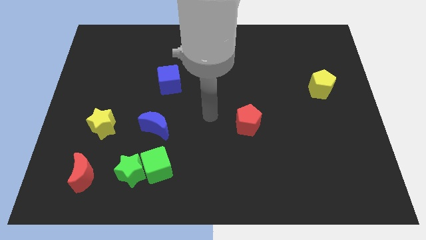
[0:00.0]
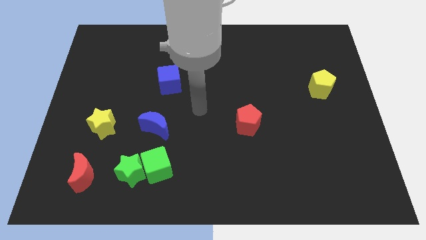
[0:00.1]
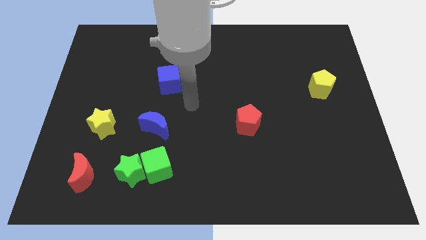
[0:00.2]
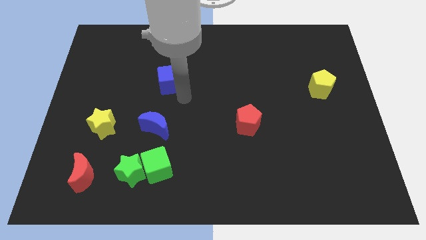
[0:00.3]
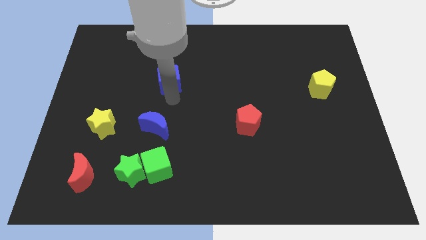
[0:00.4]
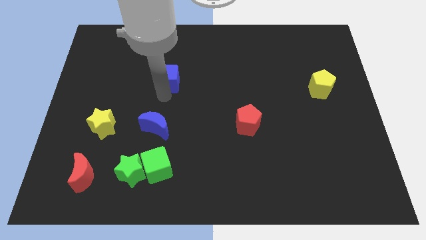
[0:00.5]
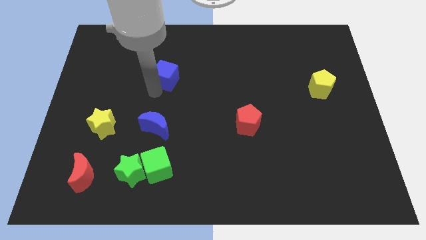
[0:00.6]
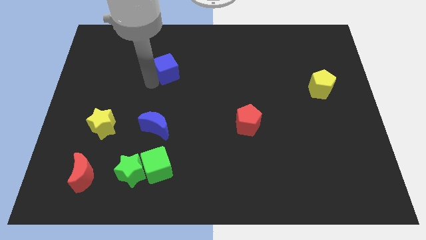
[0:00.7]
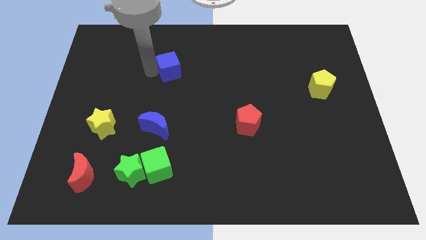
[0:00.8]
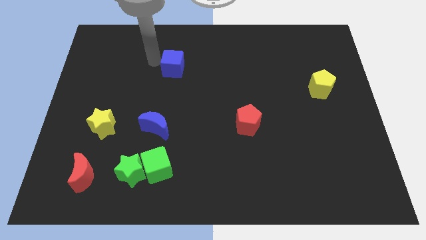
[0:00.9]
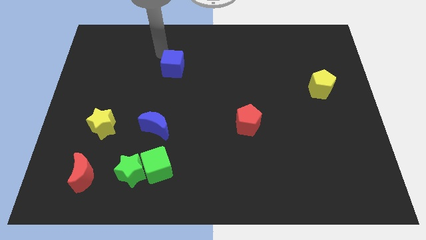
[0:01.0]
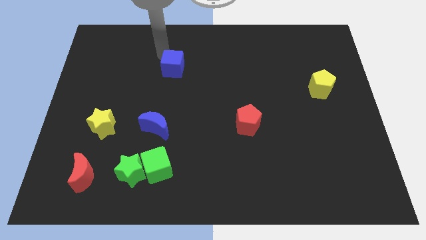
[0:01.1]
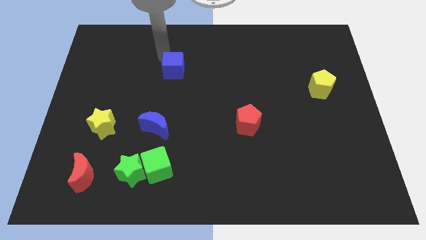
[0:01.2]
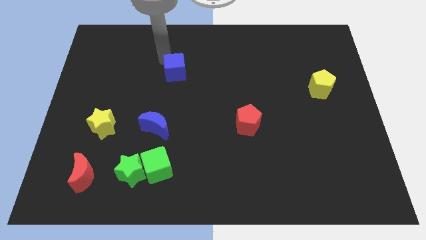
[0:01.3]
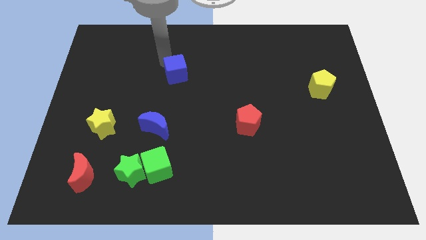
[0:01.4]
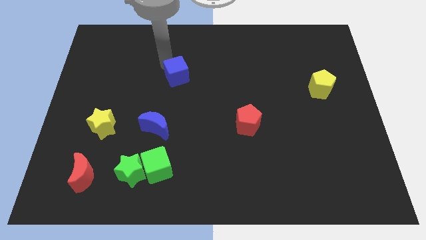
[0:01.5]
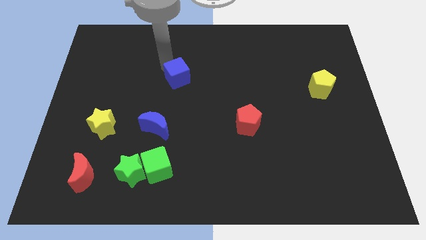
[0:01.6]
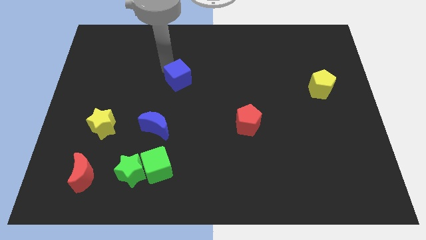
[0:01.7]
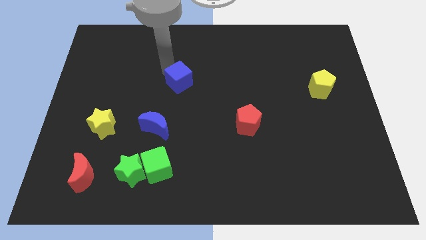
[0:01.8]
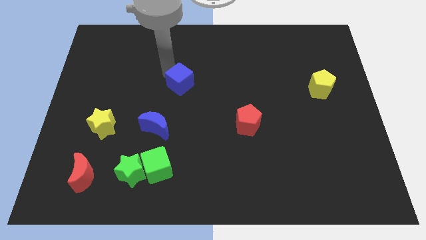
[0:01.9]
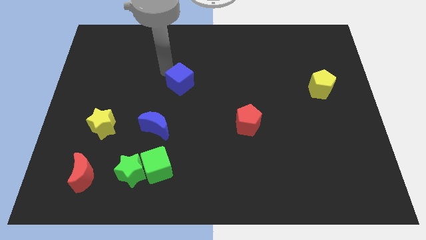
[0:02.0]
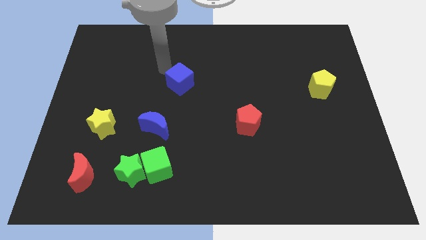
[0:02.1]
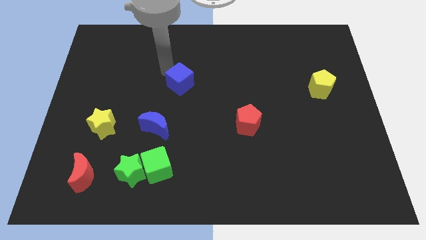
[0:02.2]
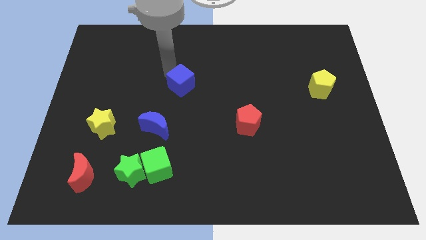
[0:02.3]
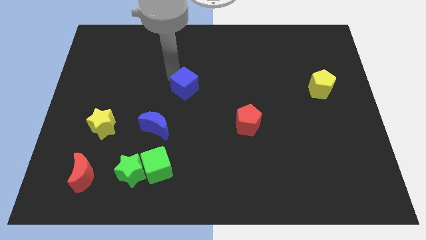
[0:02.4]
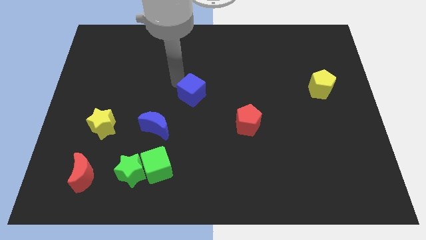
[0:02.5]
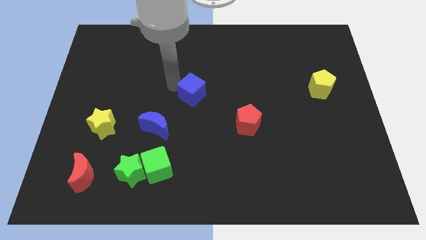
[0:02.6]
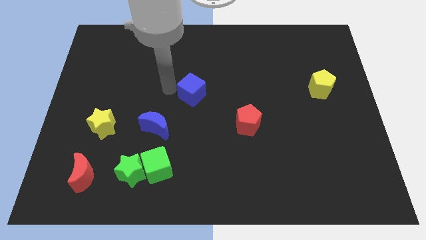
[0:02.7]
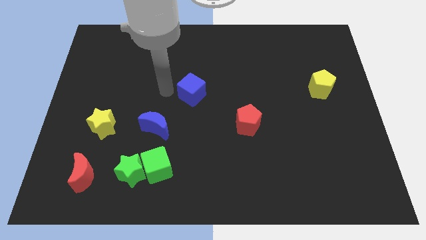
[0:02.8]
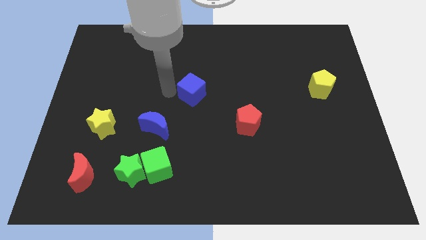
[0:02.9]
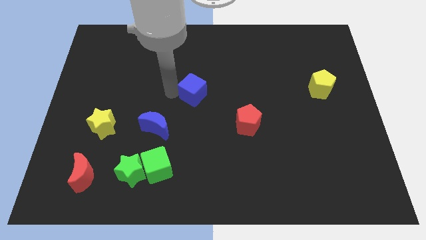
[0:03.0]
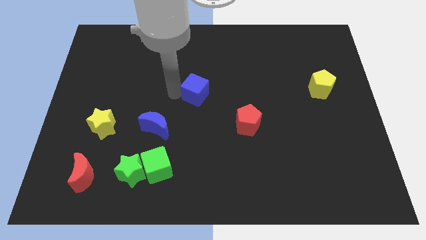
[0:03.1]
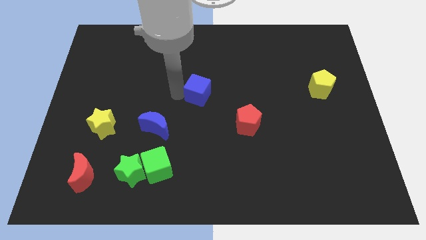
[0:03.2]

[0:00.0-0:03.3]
slide the blue cube slightly to the right

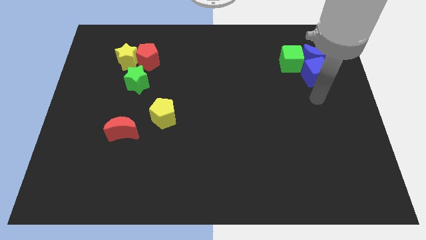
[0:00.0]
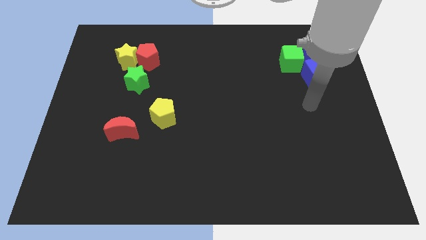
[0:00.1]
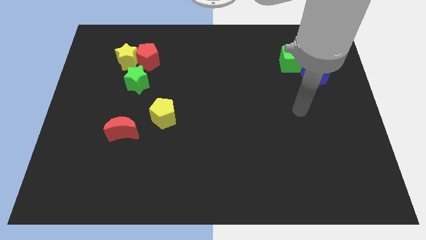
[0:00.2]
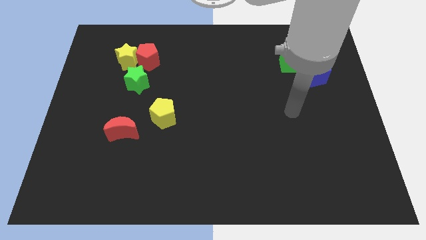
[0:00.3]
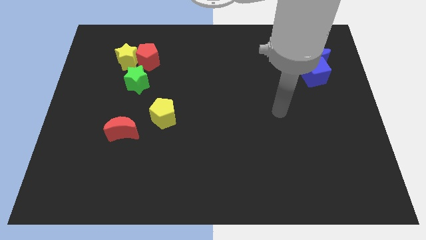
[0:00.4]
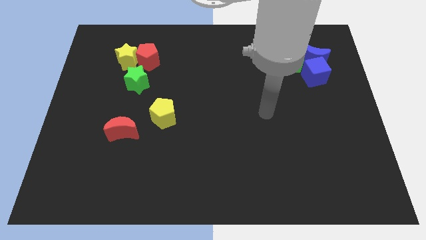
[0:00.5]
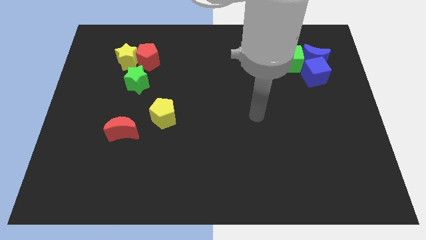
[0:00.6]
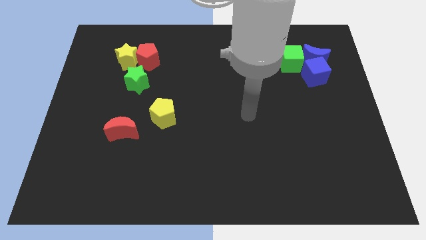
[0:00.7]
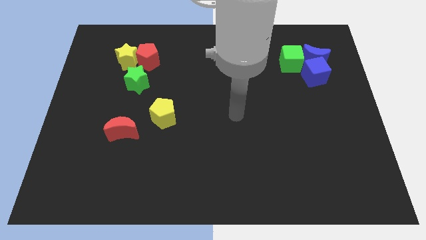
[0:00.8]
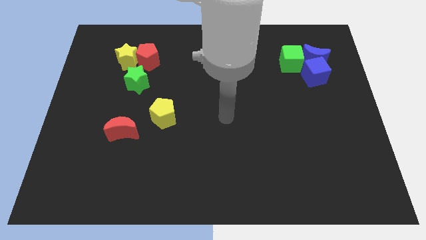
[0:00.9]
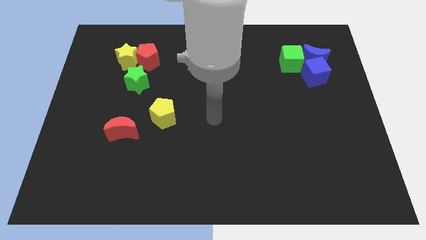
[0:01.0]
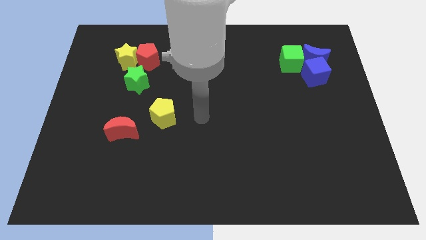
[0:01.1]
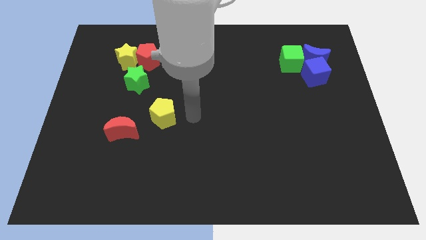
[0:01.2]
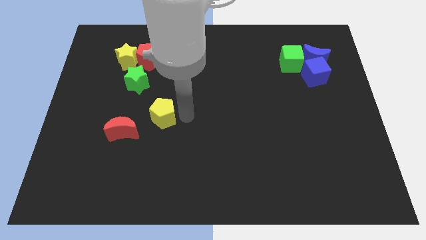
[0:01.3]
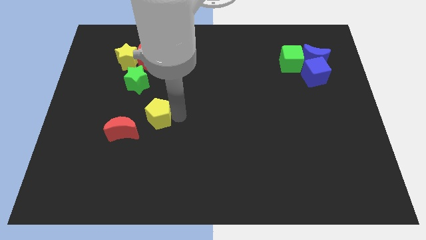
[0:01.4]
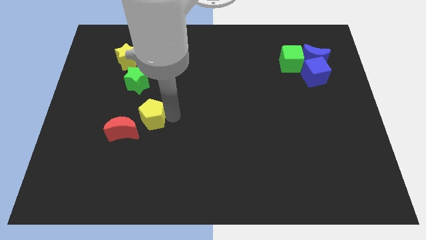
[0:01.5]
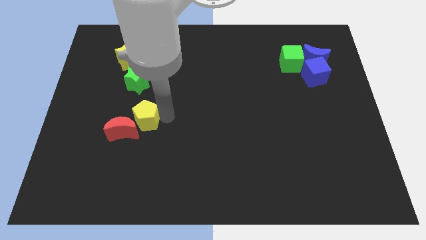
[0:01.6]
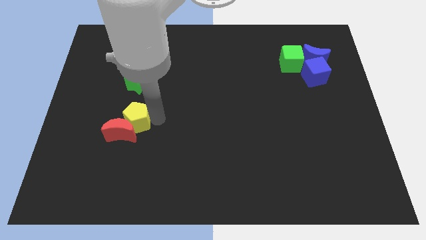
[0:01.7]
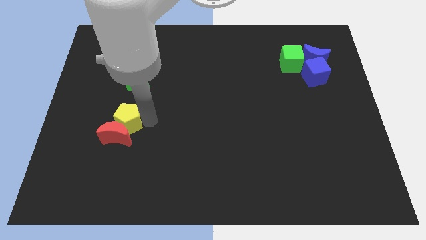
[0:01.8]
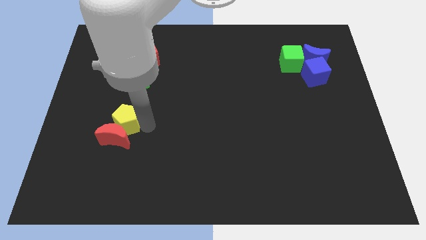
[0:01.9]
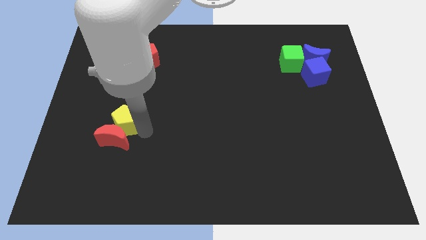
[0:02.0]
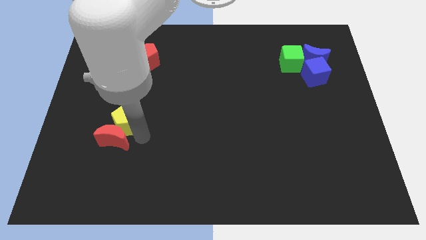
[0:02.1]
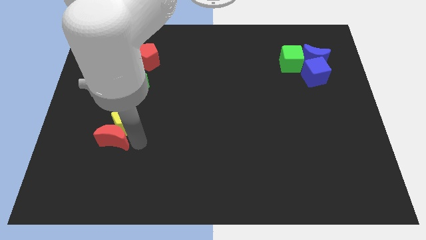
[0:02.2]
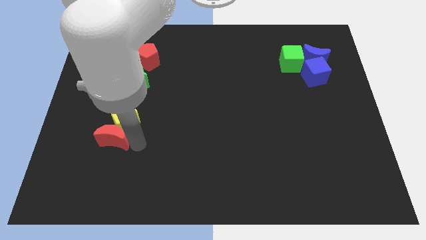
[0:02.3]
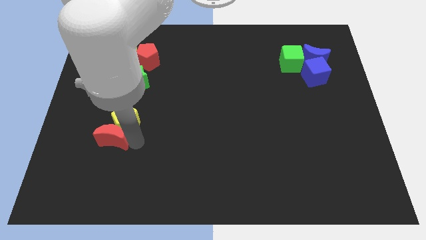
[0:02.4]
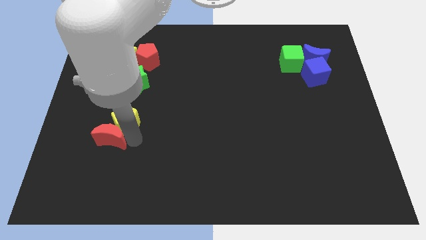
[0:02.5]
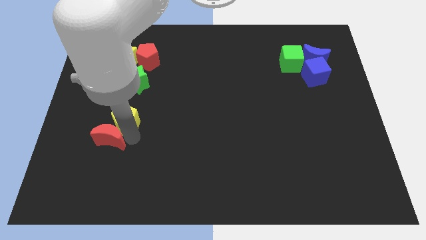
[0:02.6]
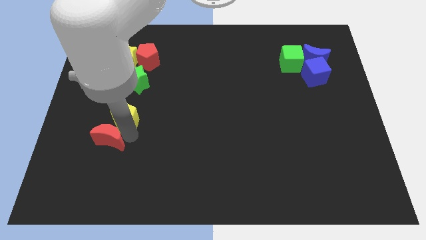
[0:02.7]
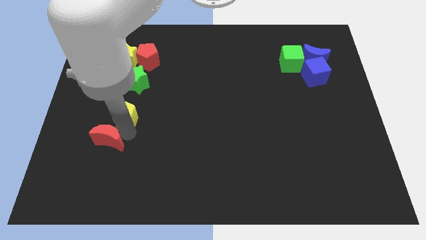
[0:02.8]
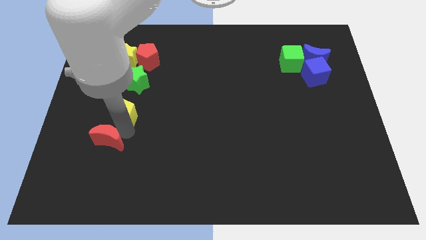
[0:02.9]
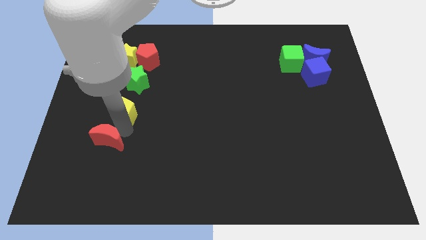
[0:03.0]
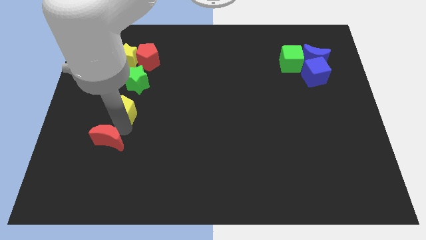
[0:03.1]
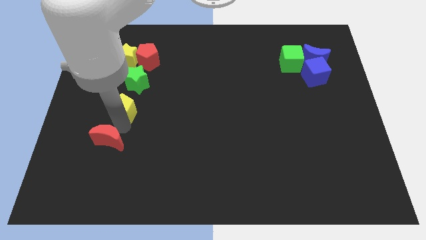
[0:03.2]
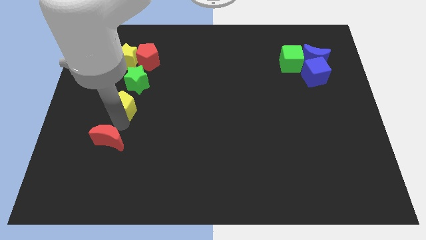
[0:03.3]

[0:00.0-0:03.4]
slightly slide the yellow pentagon upwards and left diagonally

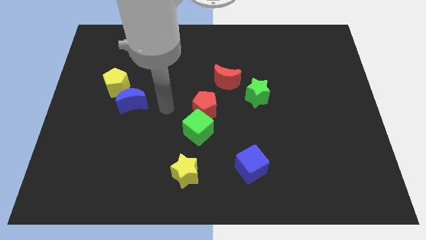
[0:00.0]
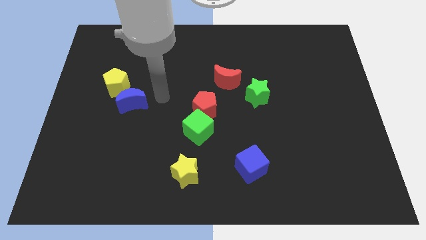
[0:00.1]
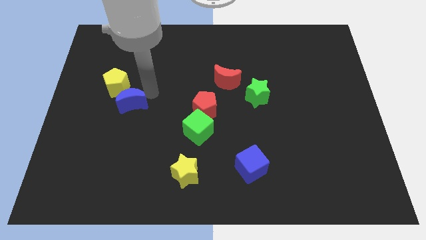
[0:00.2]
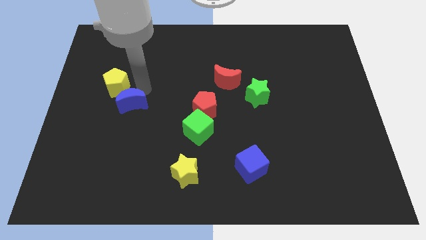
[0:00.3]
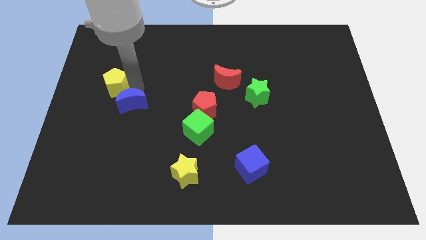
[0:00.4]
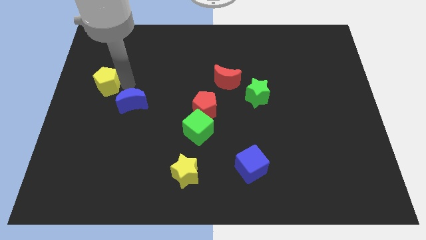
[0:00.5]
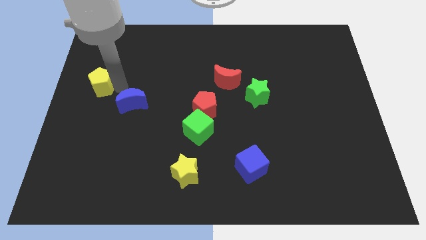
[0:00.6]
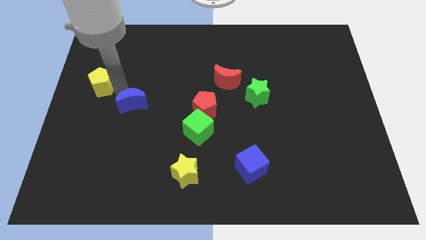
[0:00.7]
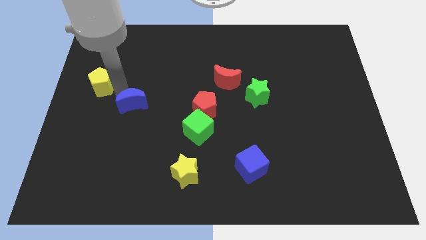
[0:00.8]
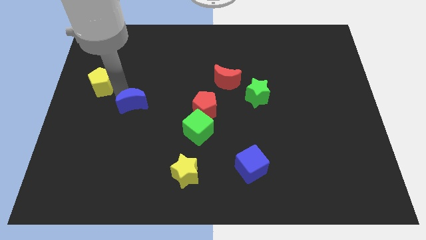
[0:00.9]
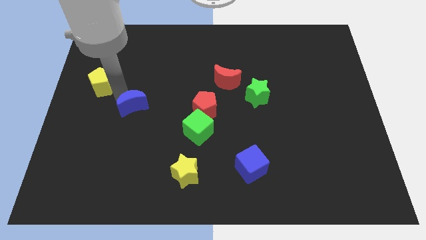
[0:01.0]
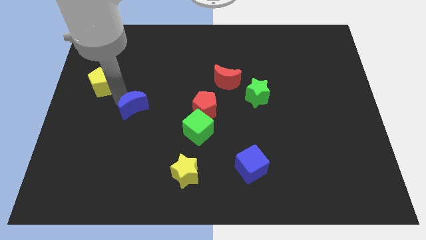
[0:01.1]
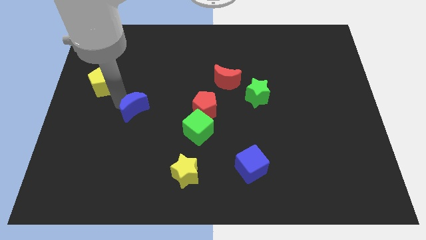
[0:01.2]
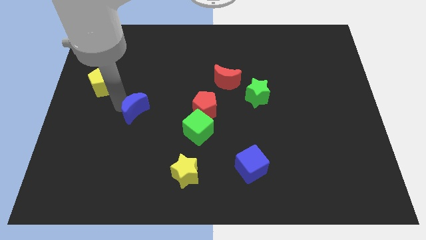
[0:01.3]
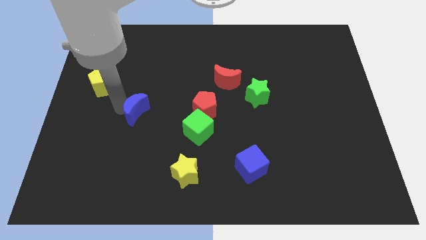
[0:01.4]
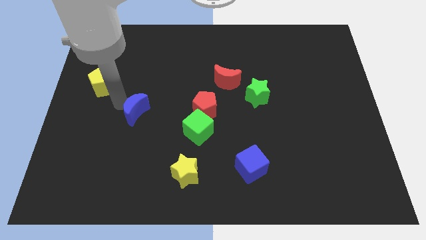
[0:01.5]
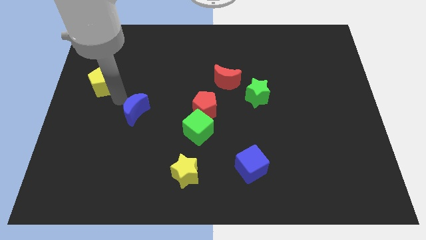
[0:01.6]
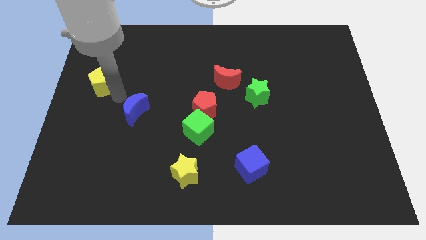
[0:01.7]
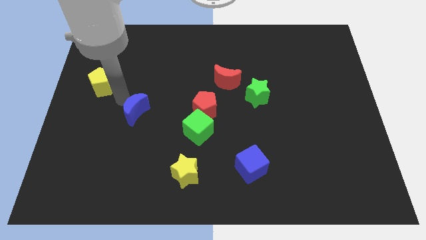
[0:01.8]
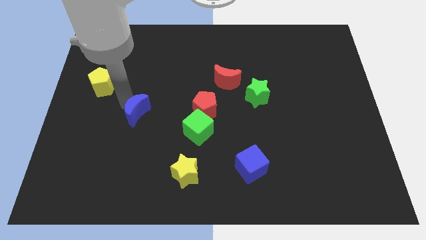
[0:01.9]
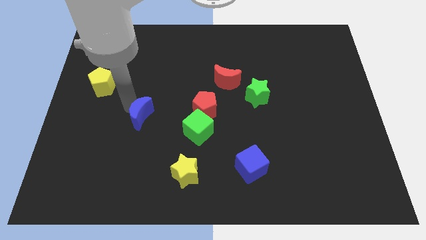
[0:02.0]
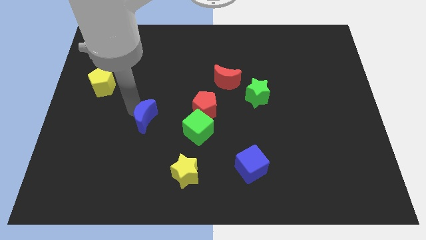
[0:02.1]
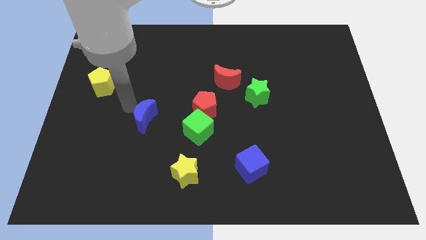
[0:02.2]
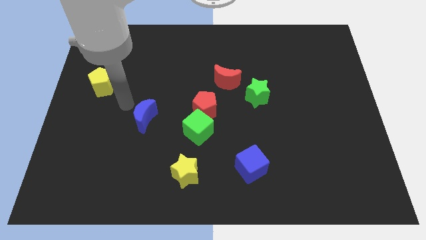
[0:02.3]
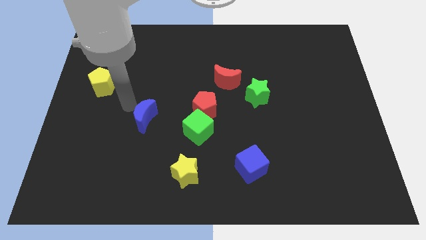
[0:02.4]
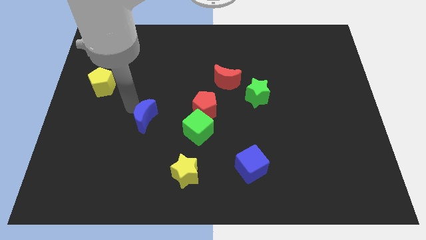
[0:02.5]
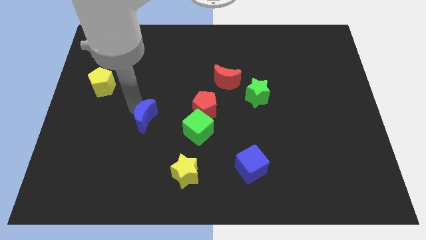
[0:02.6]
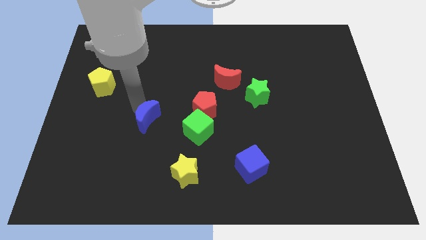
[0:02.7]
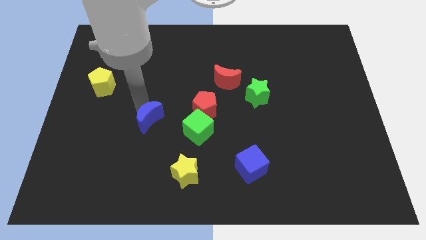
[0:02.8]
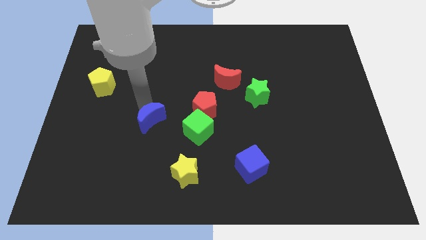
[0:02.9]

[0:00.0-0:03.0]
slightly slide the blue moon downwards and to the right diagonally
